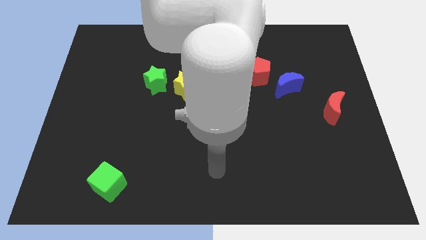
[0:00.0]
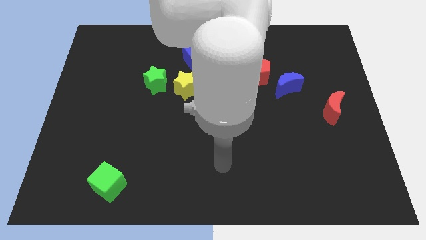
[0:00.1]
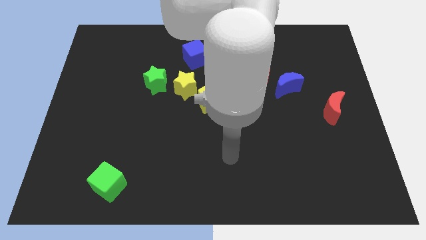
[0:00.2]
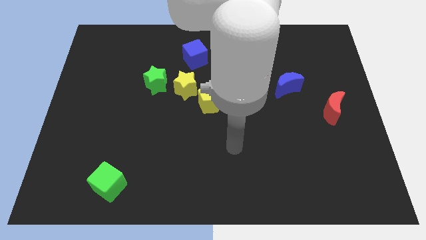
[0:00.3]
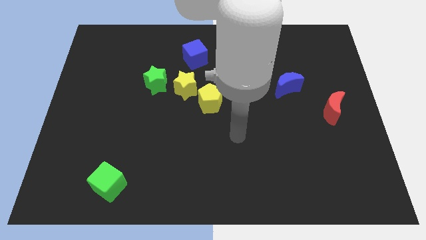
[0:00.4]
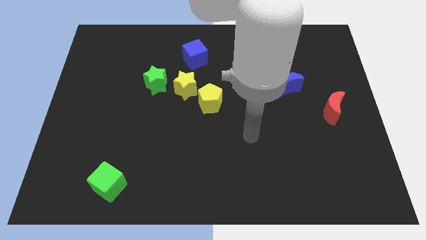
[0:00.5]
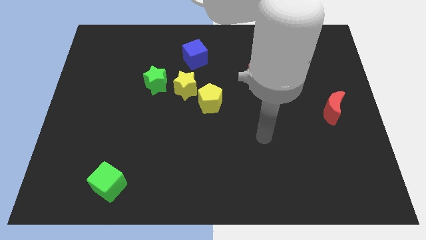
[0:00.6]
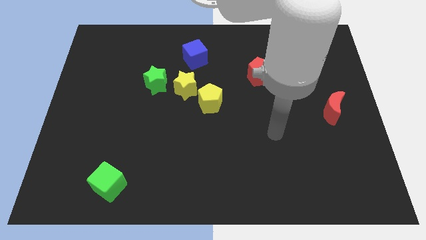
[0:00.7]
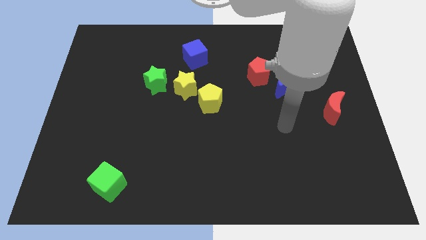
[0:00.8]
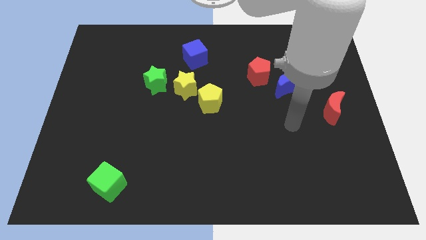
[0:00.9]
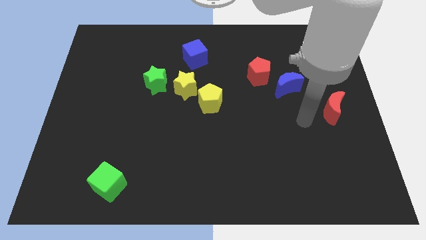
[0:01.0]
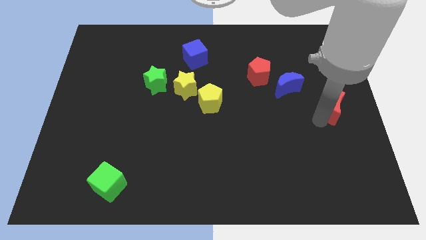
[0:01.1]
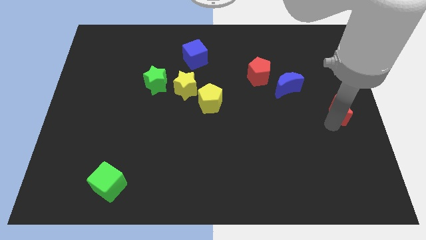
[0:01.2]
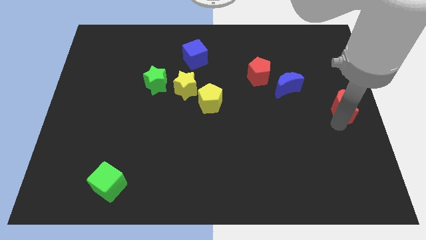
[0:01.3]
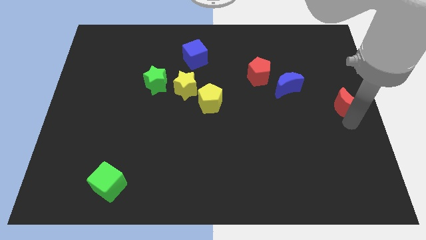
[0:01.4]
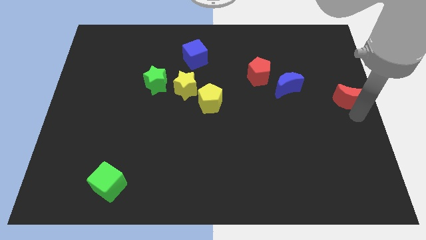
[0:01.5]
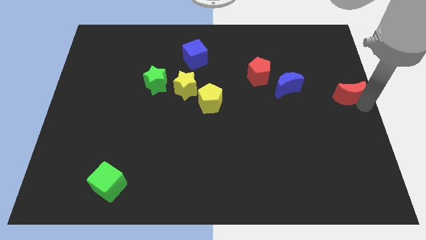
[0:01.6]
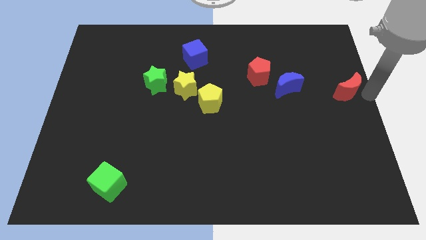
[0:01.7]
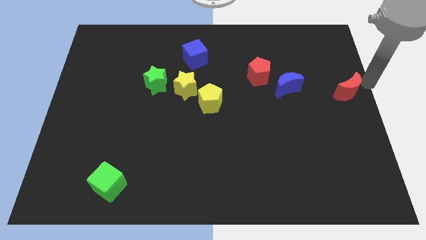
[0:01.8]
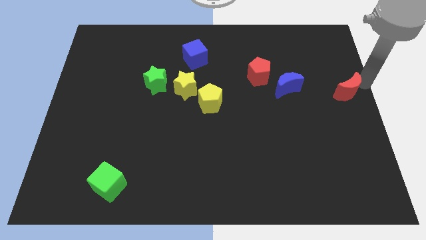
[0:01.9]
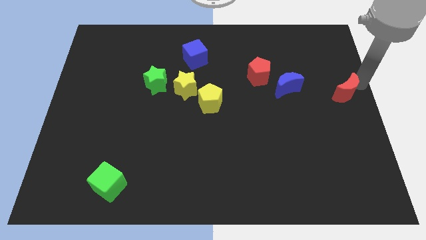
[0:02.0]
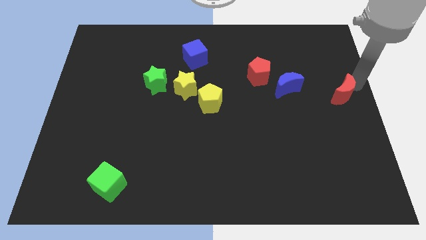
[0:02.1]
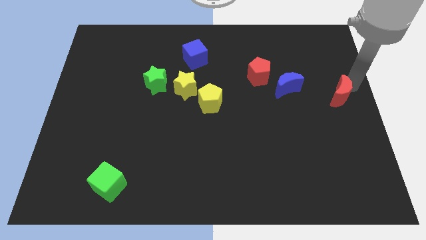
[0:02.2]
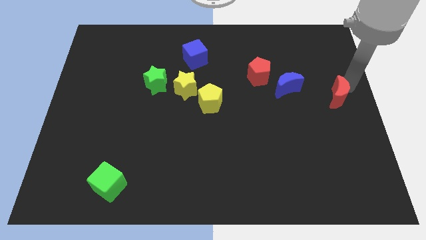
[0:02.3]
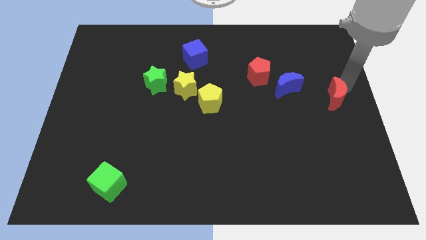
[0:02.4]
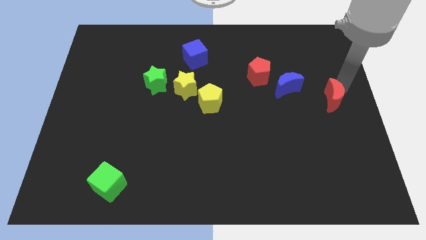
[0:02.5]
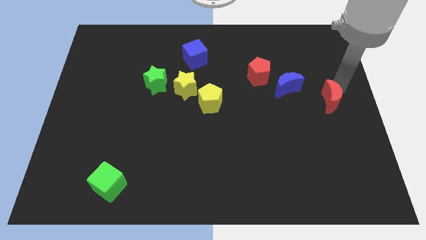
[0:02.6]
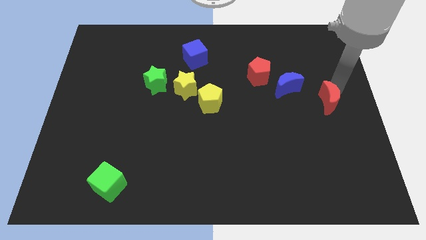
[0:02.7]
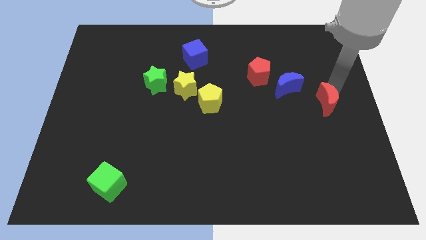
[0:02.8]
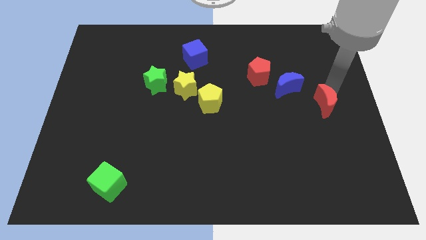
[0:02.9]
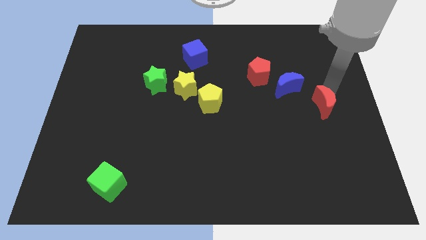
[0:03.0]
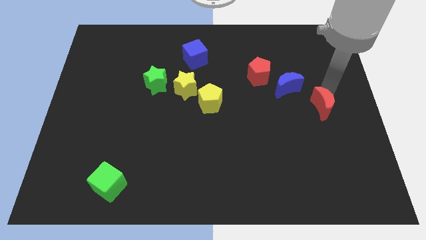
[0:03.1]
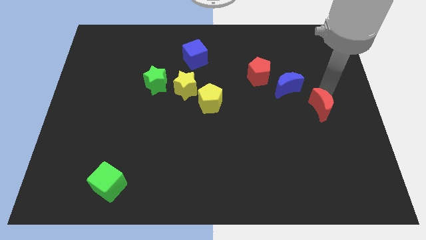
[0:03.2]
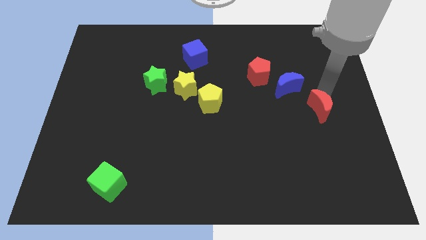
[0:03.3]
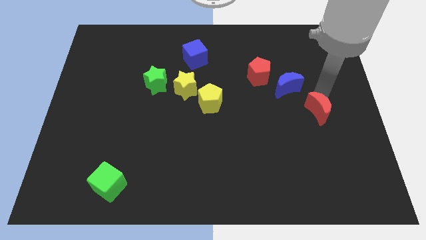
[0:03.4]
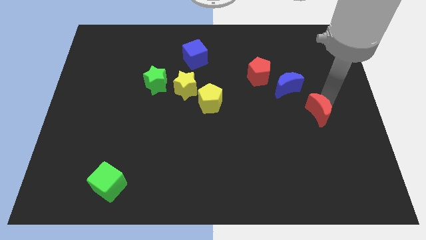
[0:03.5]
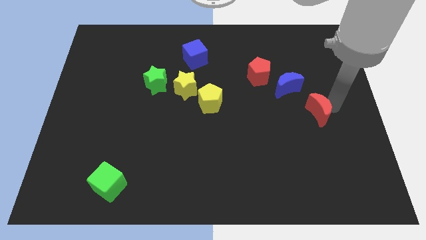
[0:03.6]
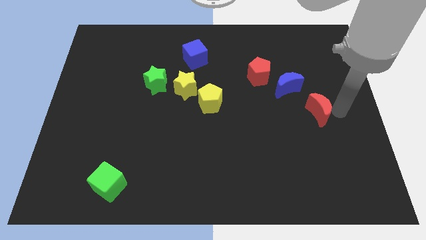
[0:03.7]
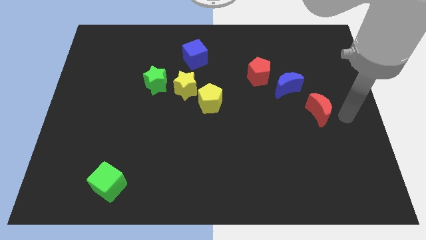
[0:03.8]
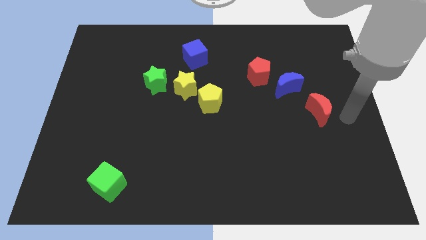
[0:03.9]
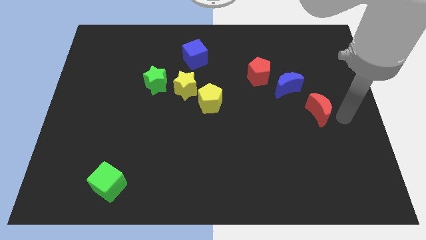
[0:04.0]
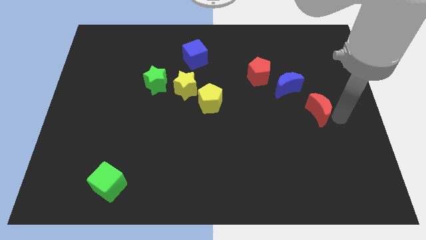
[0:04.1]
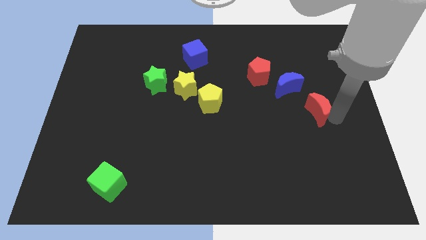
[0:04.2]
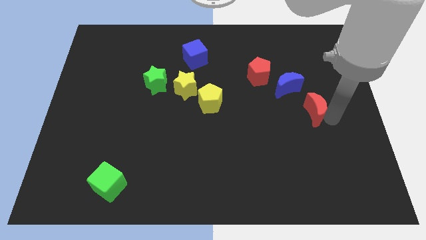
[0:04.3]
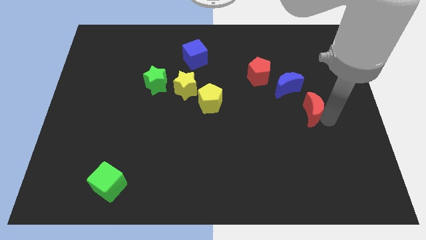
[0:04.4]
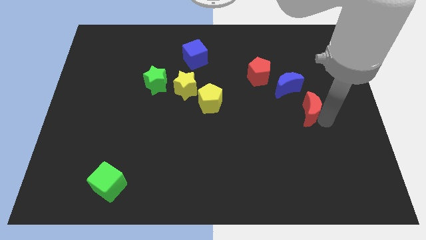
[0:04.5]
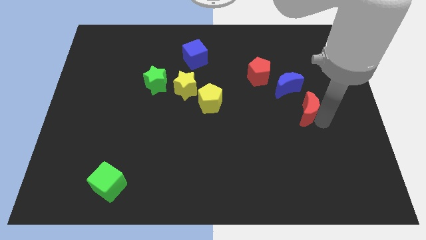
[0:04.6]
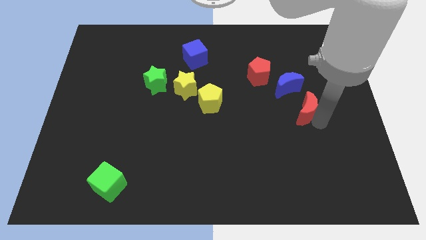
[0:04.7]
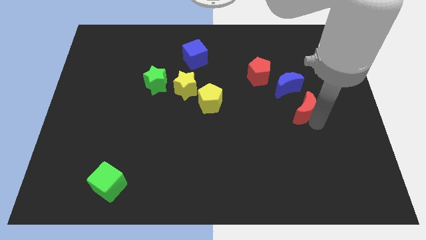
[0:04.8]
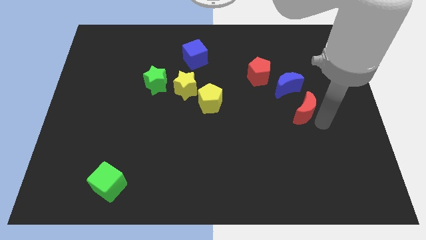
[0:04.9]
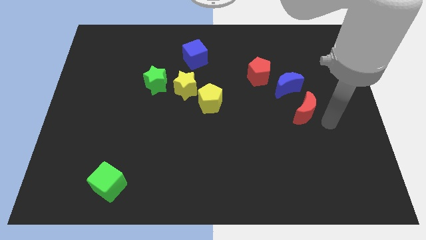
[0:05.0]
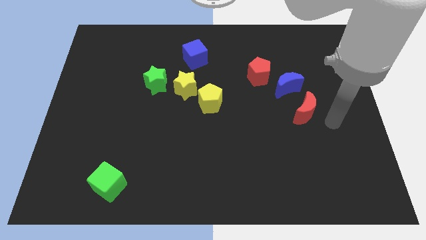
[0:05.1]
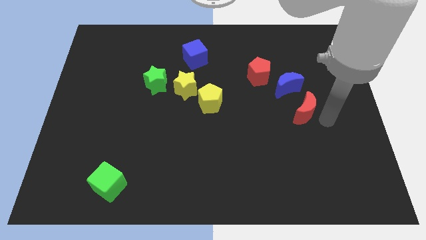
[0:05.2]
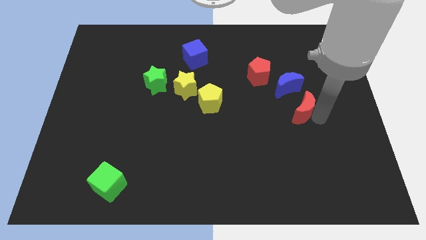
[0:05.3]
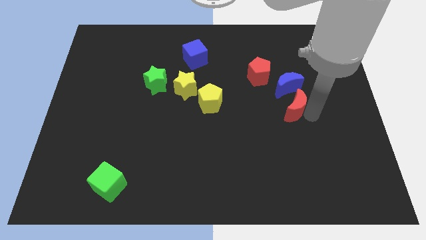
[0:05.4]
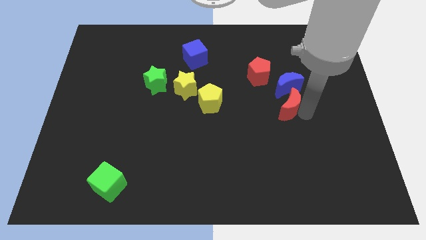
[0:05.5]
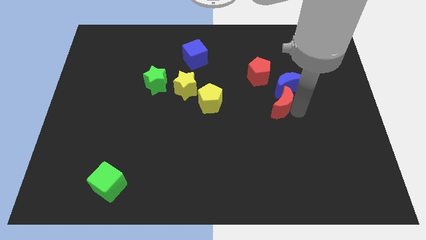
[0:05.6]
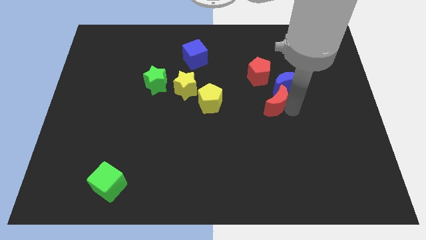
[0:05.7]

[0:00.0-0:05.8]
put the red moon right of the yellow pentagon
